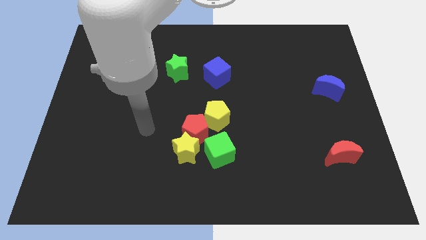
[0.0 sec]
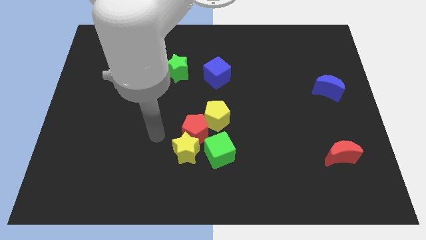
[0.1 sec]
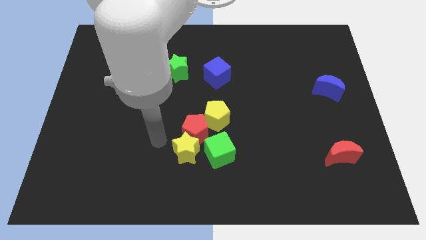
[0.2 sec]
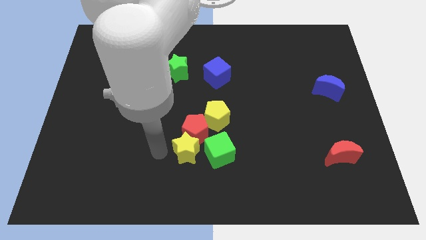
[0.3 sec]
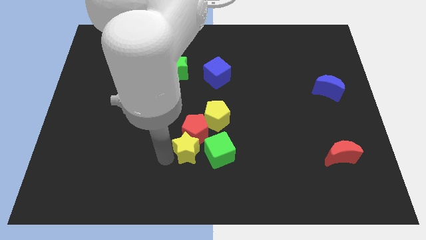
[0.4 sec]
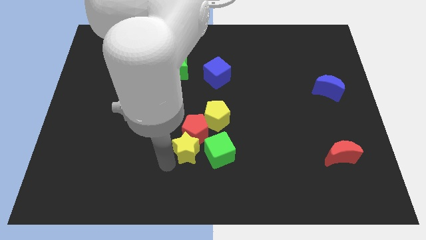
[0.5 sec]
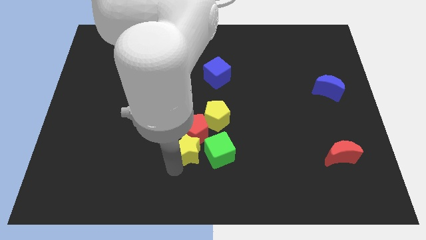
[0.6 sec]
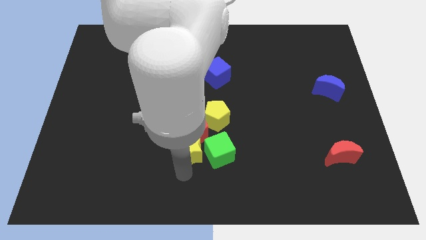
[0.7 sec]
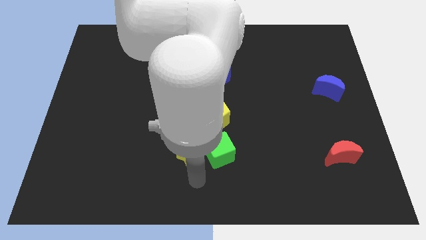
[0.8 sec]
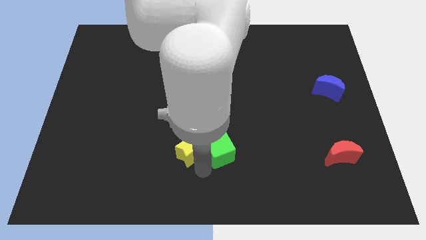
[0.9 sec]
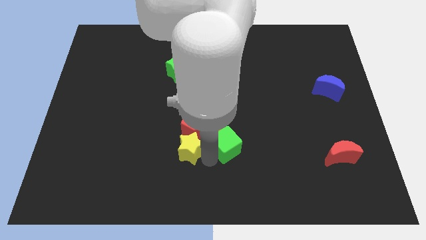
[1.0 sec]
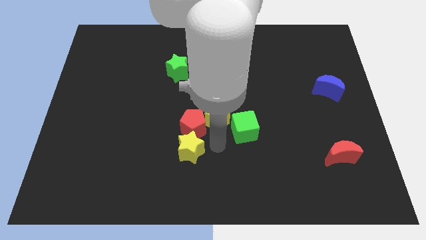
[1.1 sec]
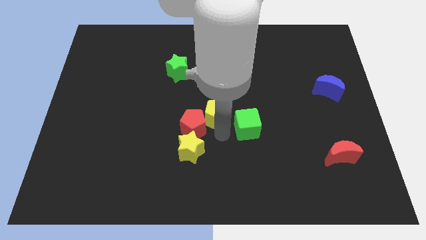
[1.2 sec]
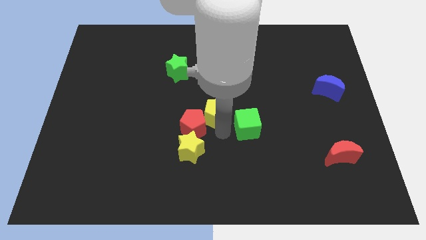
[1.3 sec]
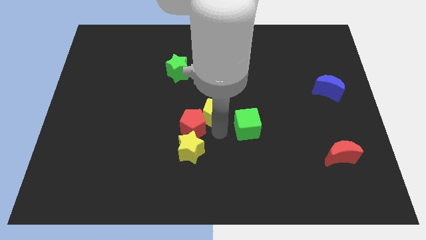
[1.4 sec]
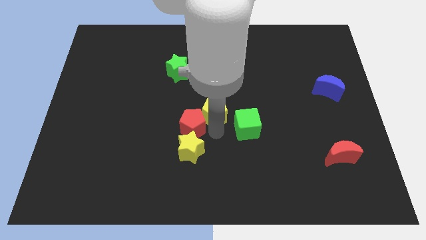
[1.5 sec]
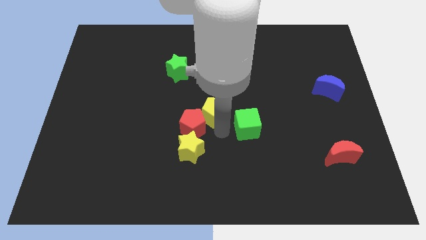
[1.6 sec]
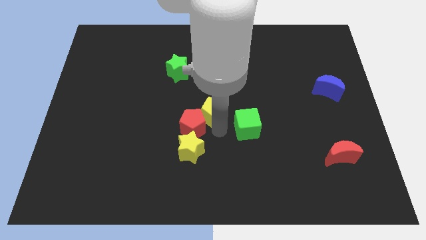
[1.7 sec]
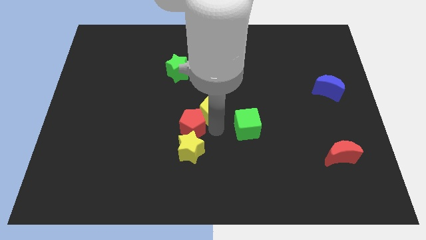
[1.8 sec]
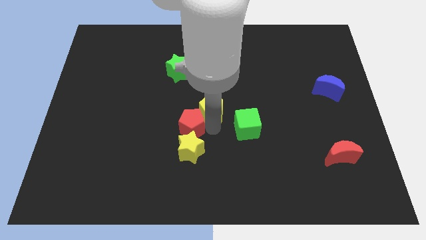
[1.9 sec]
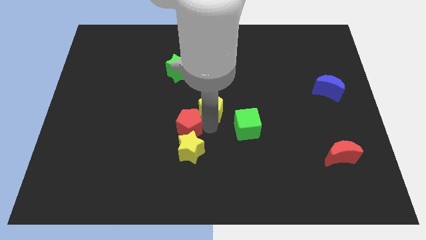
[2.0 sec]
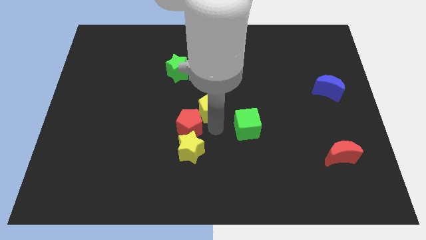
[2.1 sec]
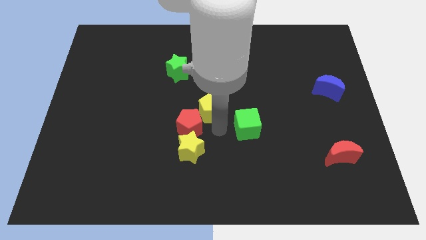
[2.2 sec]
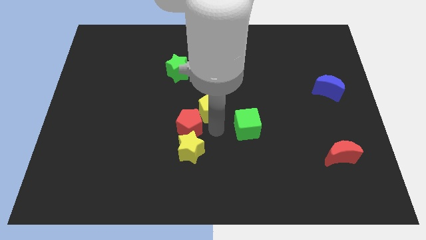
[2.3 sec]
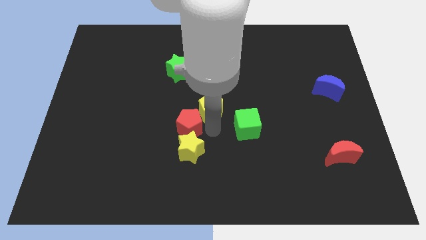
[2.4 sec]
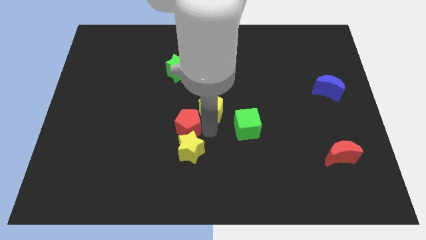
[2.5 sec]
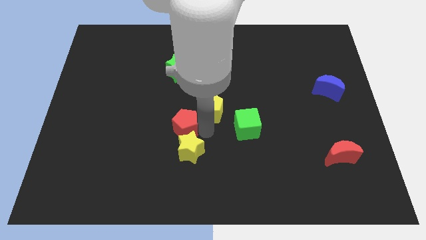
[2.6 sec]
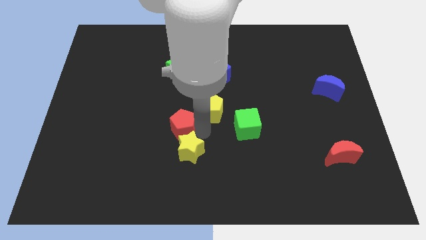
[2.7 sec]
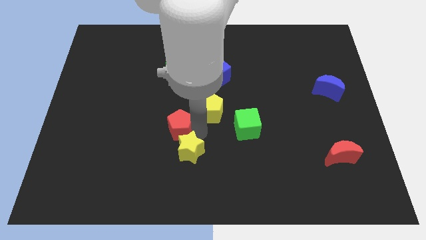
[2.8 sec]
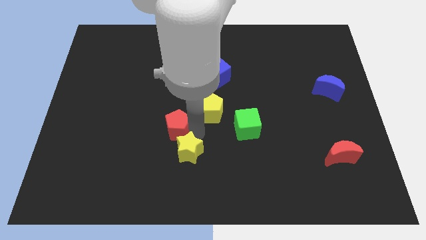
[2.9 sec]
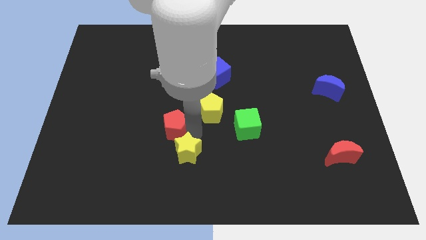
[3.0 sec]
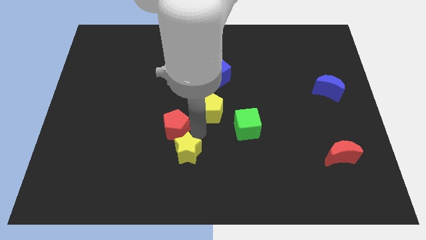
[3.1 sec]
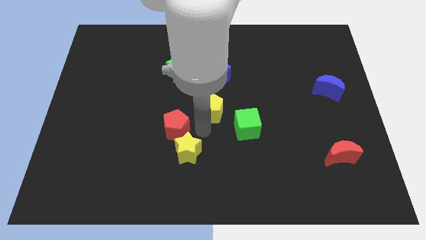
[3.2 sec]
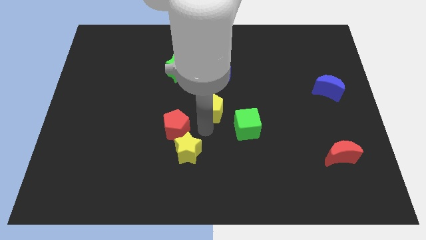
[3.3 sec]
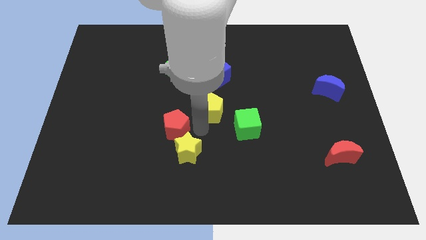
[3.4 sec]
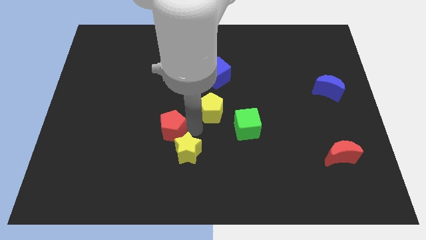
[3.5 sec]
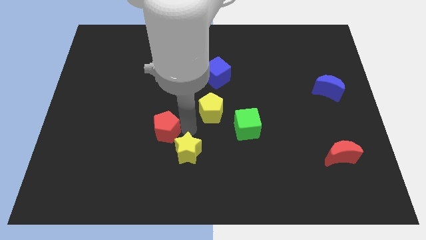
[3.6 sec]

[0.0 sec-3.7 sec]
pull the red pentagon apart from the group

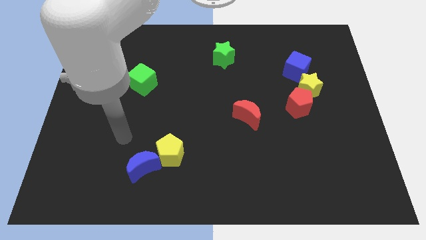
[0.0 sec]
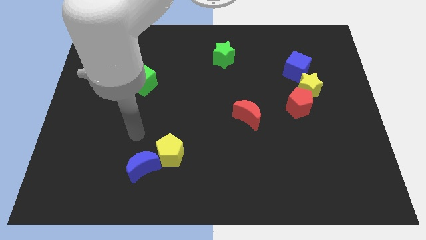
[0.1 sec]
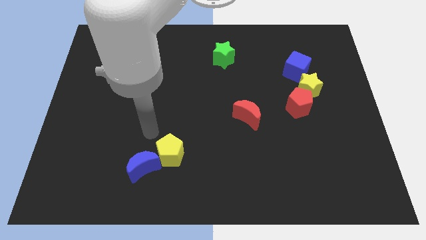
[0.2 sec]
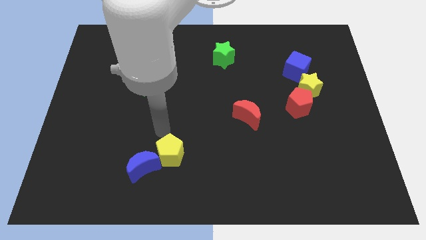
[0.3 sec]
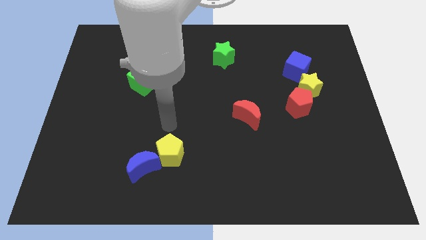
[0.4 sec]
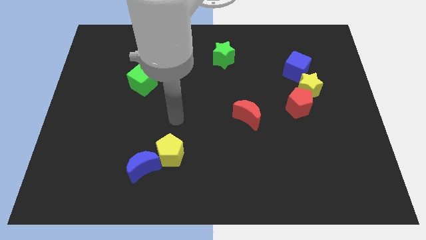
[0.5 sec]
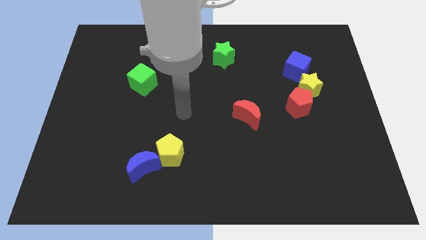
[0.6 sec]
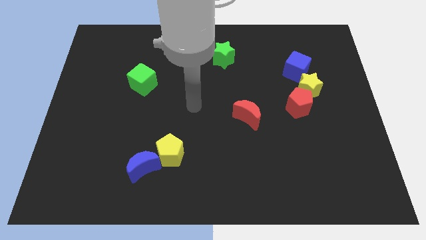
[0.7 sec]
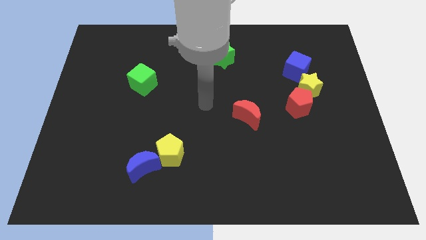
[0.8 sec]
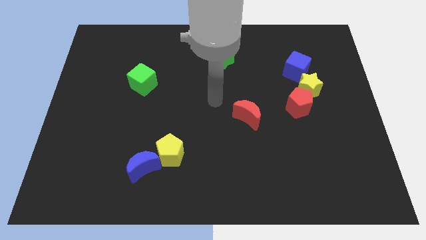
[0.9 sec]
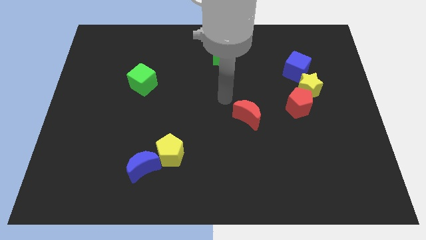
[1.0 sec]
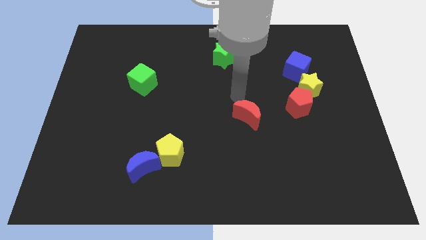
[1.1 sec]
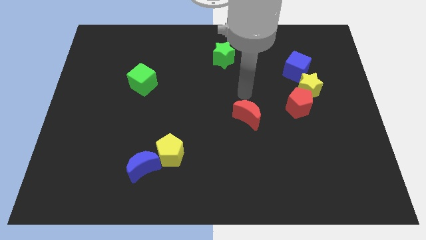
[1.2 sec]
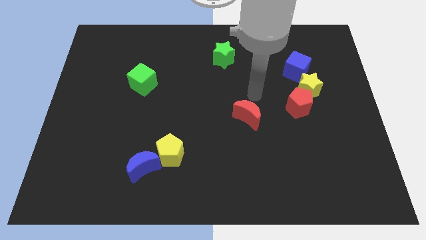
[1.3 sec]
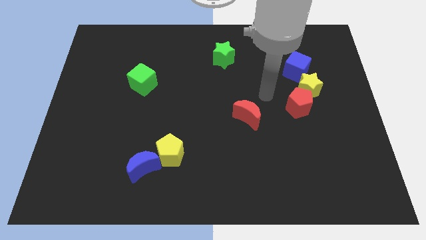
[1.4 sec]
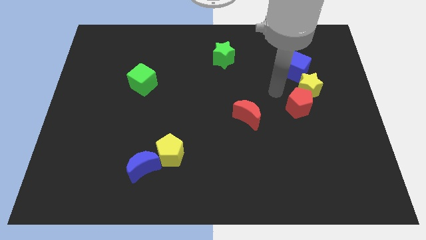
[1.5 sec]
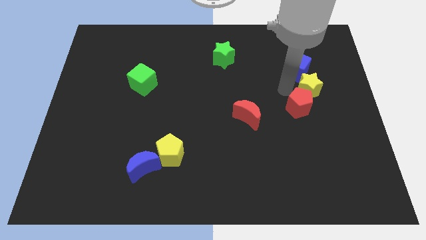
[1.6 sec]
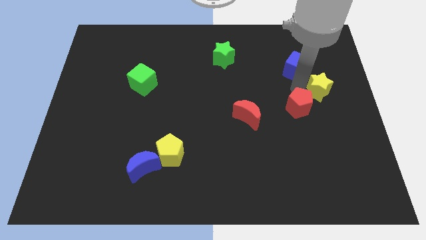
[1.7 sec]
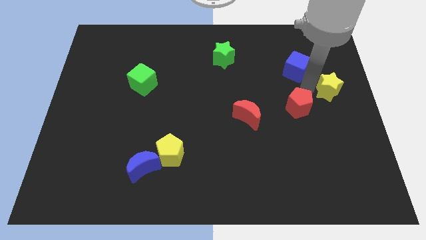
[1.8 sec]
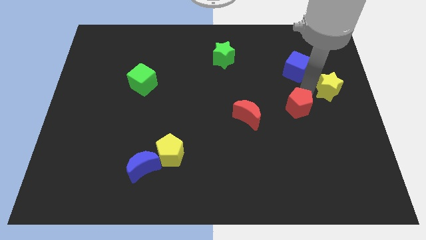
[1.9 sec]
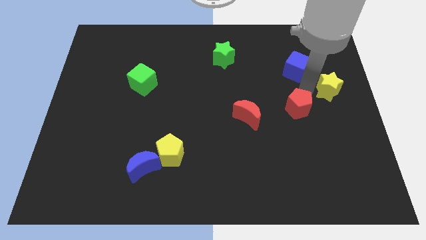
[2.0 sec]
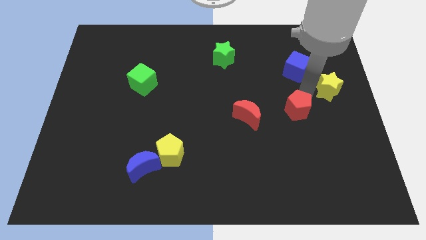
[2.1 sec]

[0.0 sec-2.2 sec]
separate the red pentagon from the yellow star

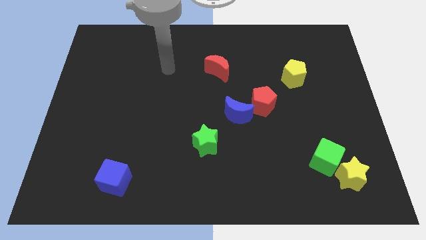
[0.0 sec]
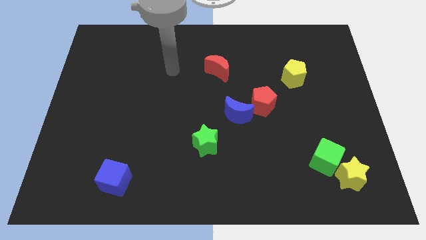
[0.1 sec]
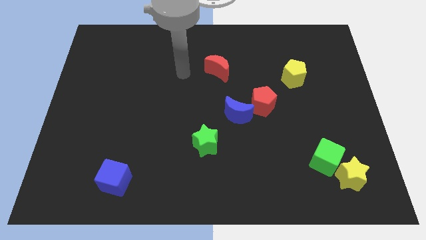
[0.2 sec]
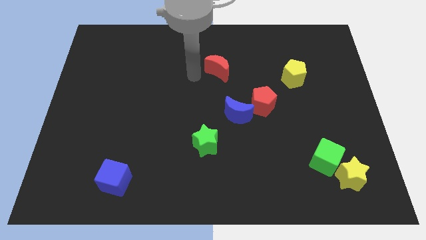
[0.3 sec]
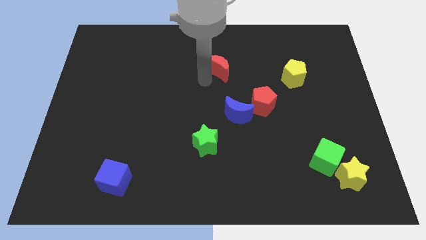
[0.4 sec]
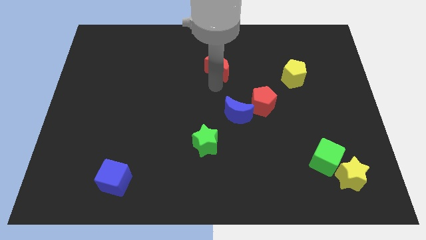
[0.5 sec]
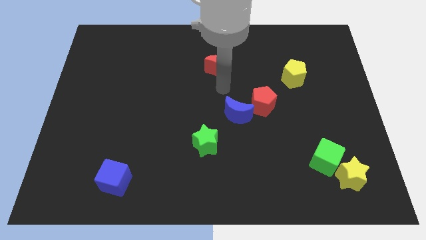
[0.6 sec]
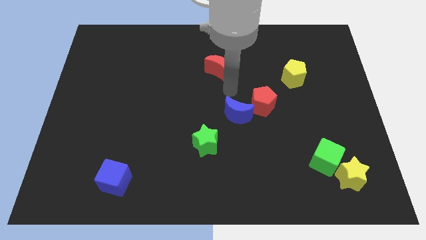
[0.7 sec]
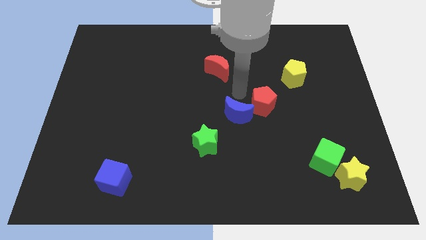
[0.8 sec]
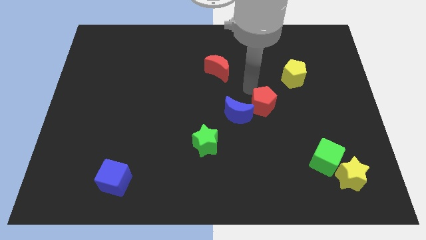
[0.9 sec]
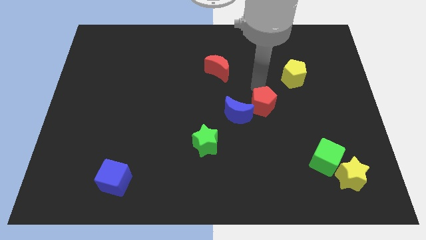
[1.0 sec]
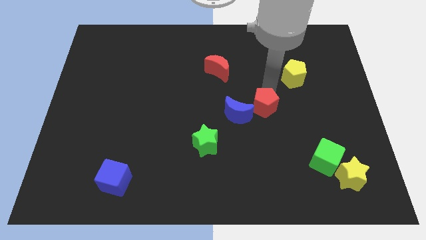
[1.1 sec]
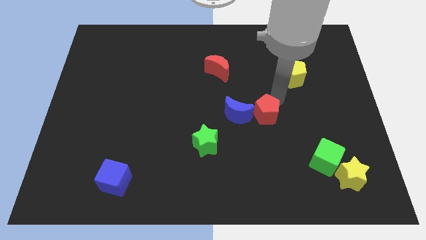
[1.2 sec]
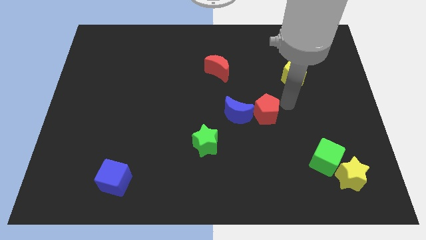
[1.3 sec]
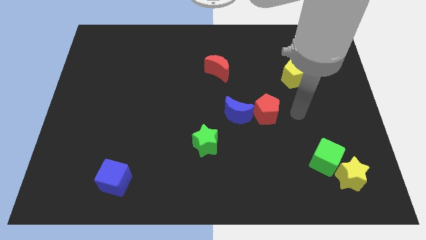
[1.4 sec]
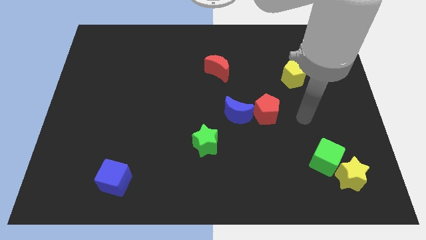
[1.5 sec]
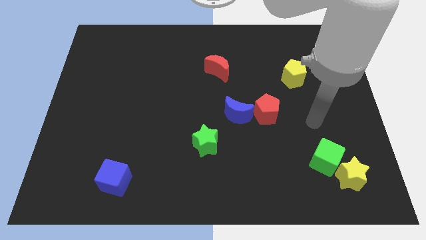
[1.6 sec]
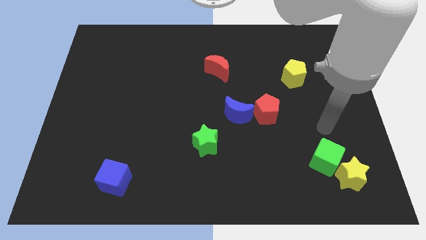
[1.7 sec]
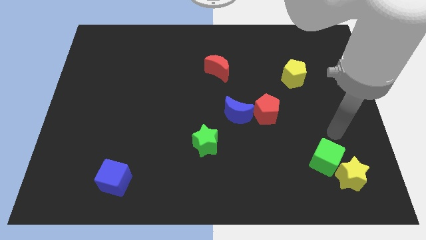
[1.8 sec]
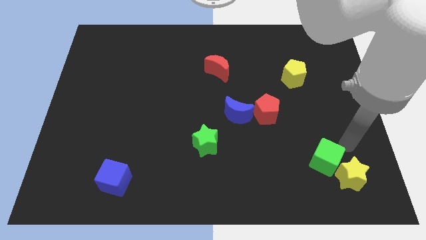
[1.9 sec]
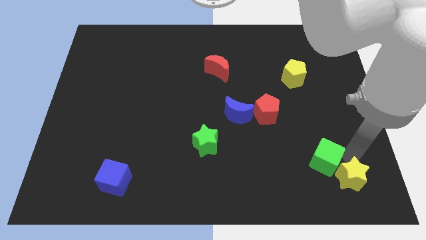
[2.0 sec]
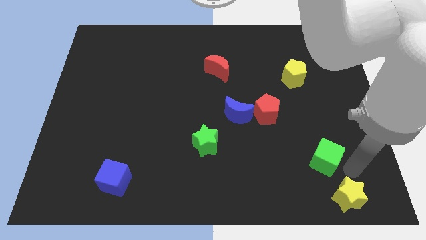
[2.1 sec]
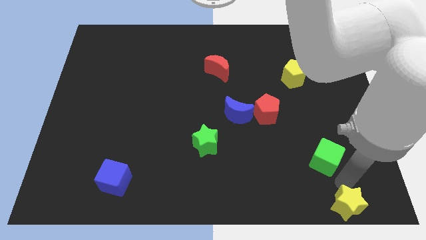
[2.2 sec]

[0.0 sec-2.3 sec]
separate the green cube from the yellow star

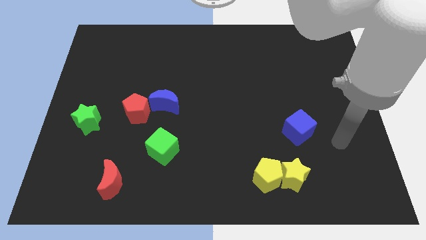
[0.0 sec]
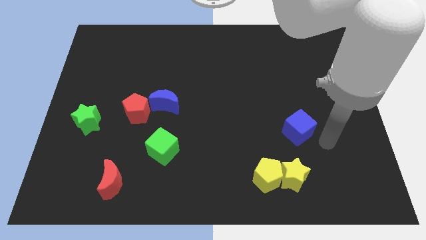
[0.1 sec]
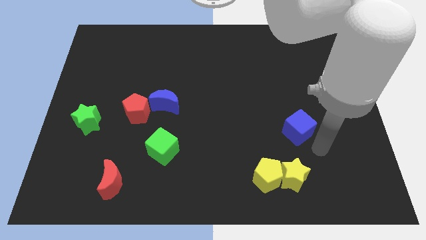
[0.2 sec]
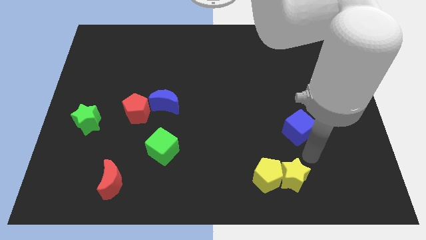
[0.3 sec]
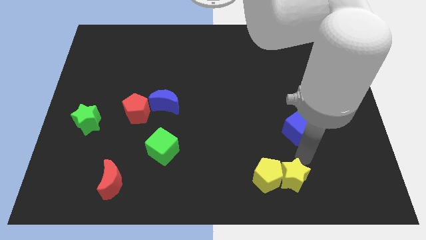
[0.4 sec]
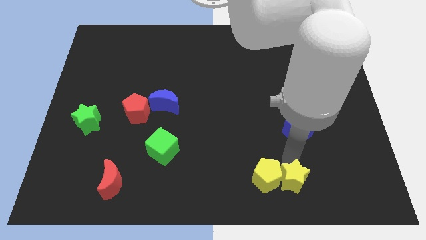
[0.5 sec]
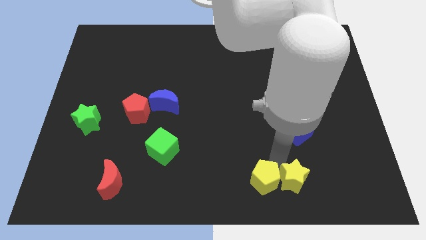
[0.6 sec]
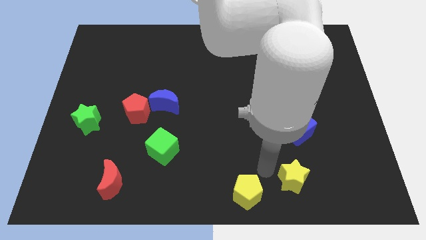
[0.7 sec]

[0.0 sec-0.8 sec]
separate the yellow star from the yellow pentagon

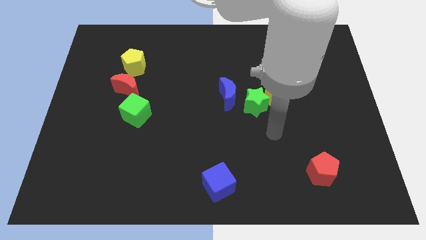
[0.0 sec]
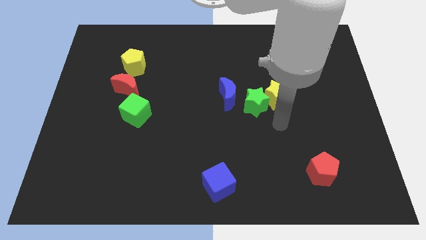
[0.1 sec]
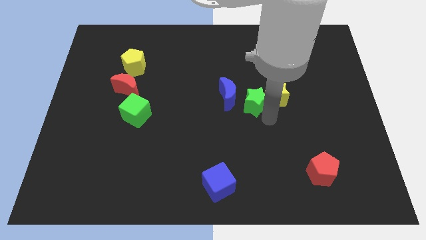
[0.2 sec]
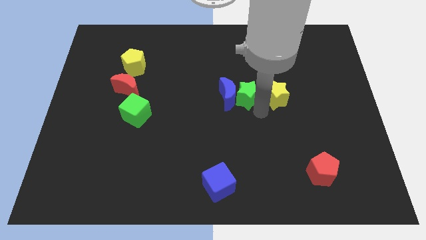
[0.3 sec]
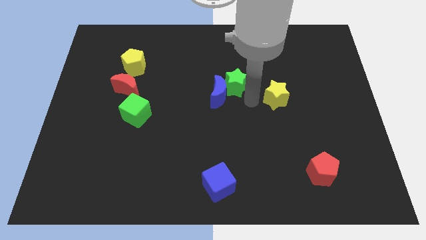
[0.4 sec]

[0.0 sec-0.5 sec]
pull the yellow star apart from the green star
